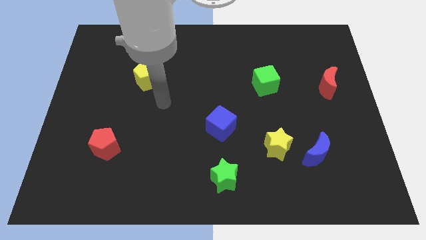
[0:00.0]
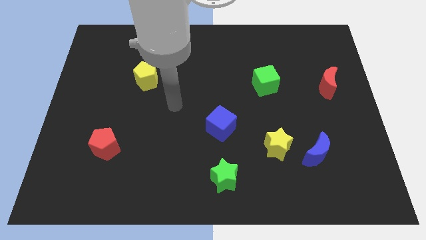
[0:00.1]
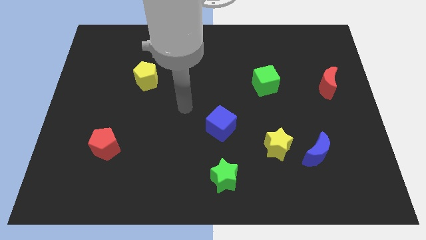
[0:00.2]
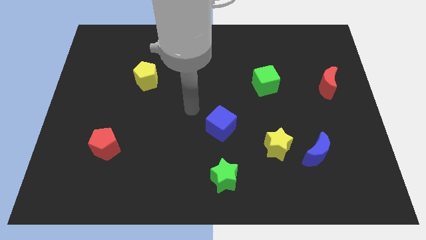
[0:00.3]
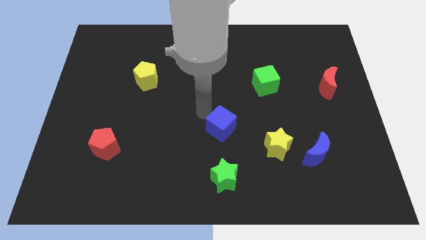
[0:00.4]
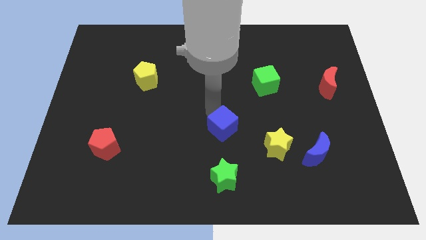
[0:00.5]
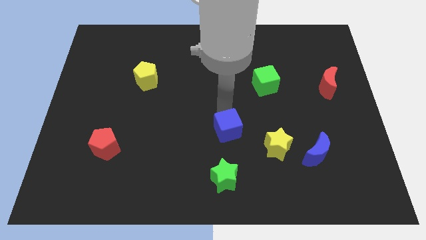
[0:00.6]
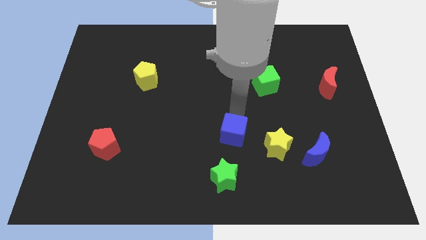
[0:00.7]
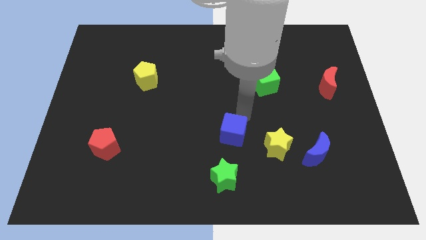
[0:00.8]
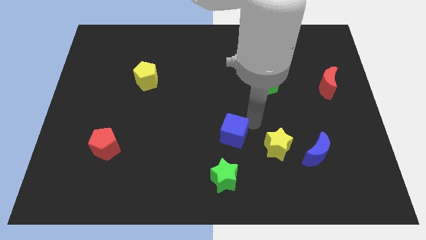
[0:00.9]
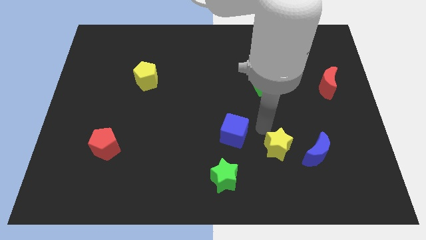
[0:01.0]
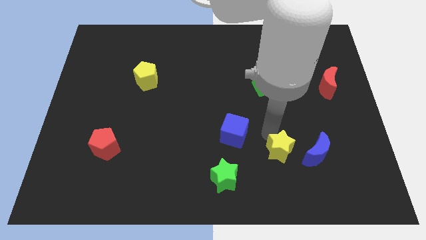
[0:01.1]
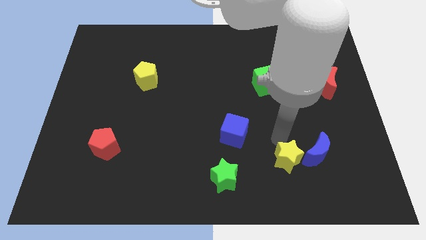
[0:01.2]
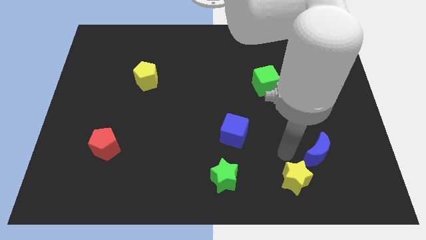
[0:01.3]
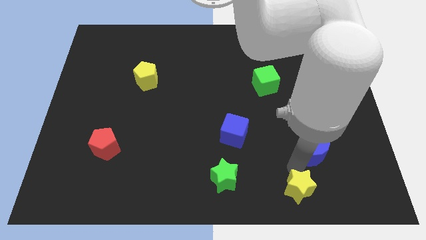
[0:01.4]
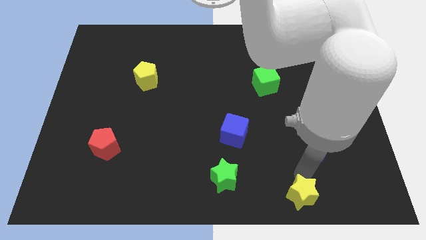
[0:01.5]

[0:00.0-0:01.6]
pull the blue moon apart from the yellow star

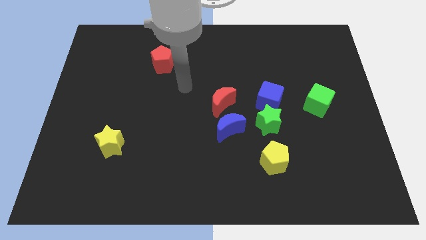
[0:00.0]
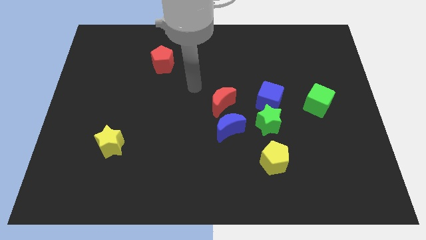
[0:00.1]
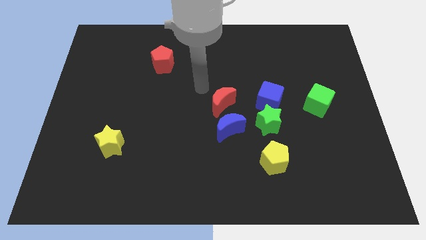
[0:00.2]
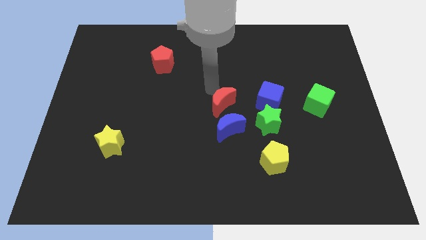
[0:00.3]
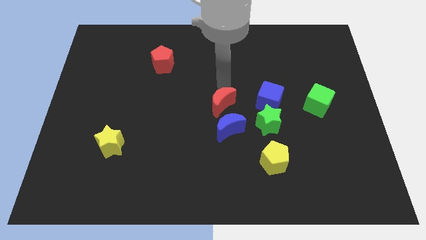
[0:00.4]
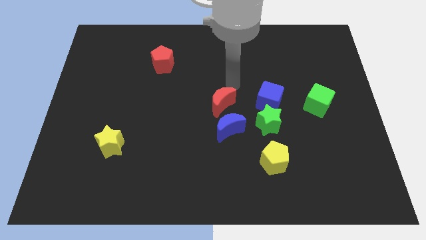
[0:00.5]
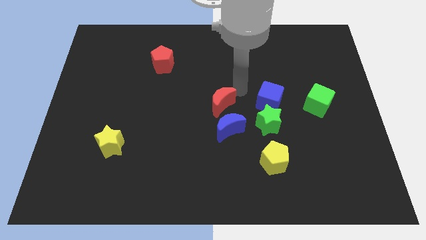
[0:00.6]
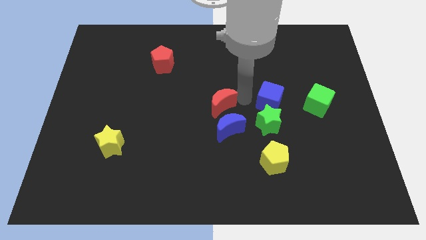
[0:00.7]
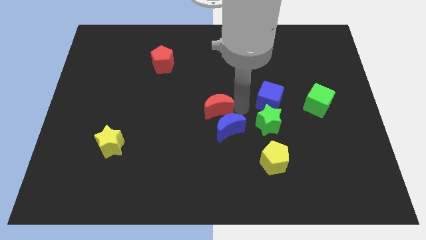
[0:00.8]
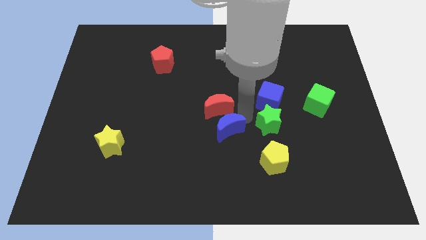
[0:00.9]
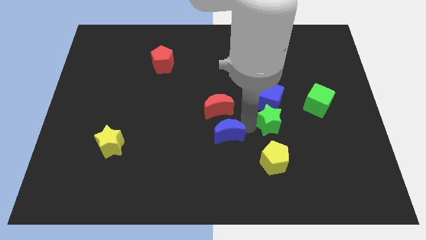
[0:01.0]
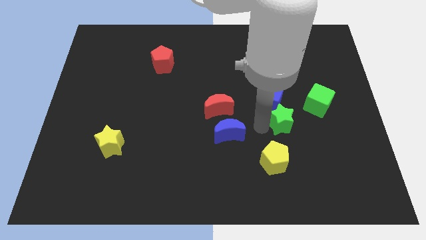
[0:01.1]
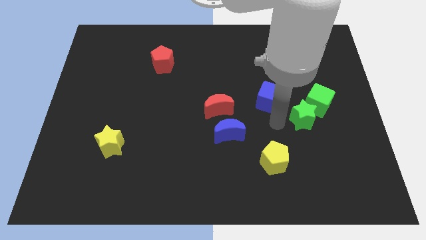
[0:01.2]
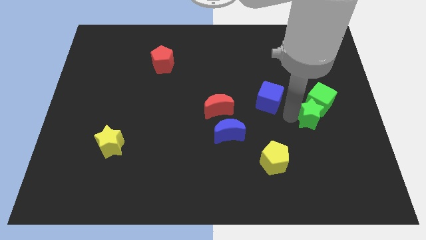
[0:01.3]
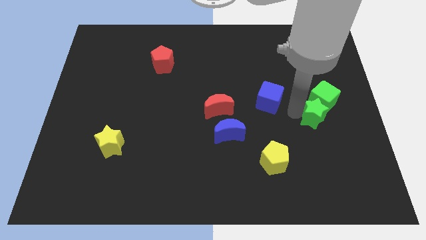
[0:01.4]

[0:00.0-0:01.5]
separate the blue cube from the green star

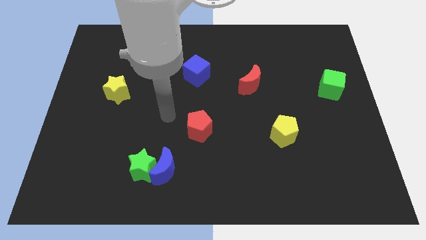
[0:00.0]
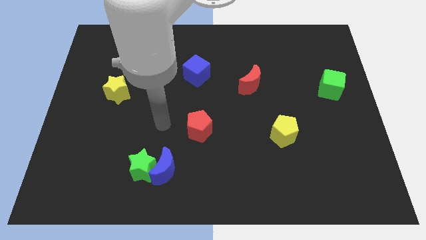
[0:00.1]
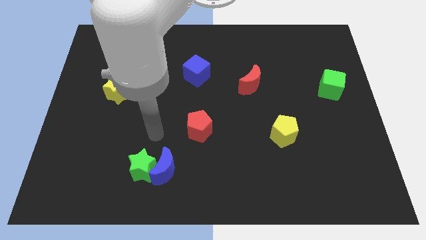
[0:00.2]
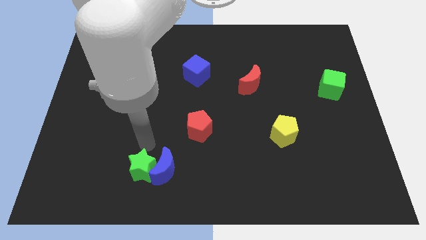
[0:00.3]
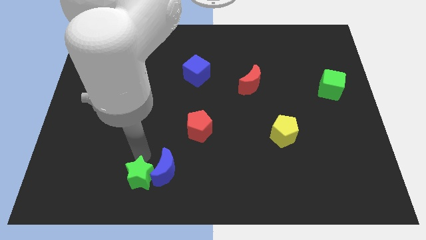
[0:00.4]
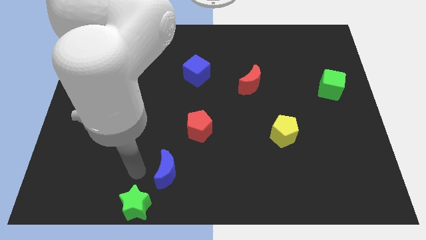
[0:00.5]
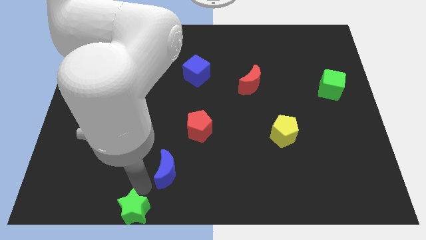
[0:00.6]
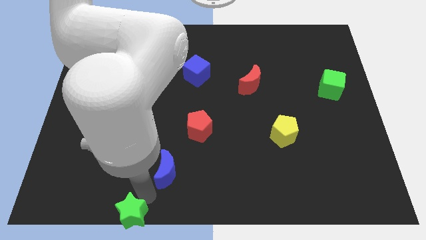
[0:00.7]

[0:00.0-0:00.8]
separate the blue moon from the green star

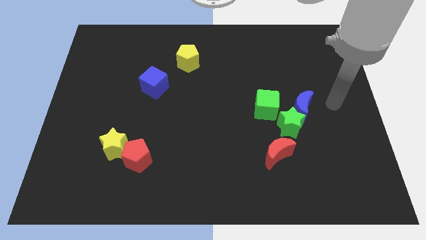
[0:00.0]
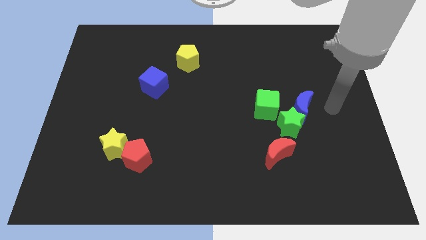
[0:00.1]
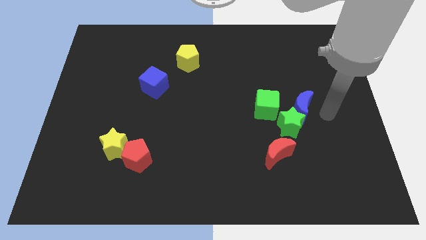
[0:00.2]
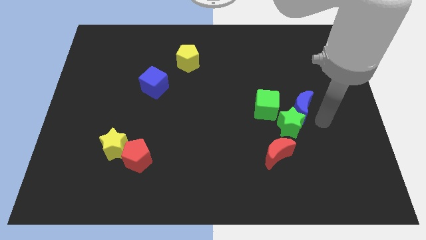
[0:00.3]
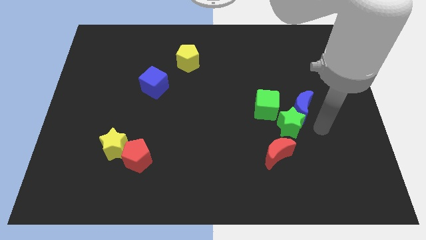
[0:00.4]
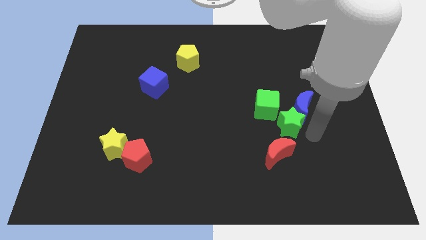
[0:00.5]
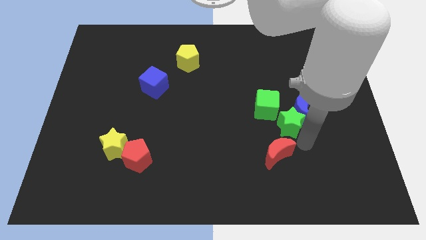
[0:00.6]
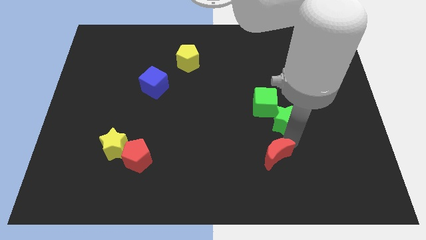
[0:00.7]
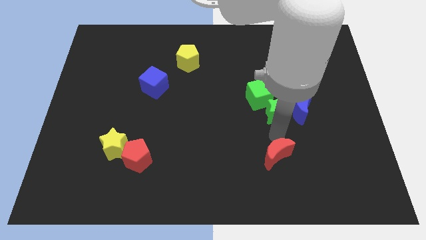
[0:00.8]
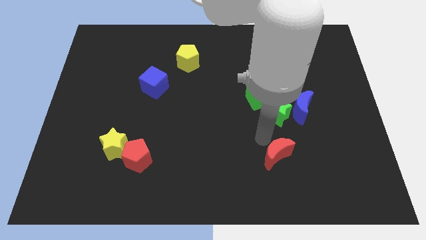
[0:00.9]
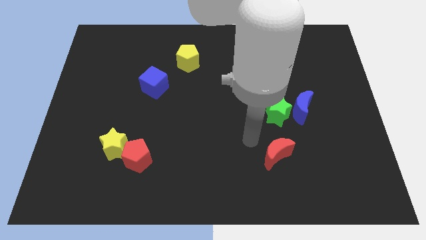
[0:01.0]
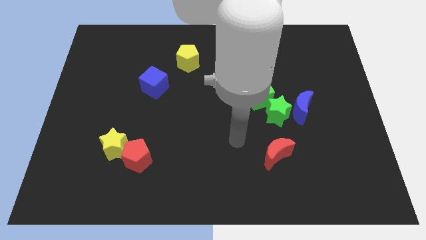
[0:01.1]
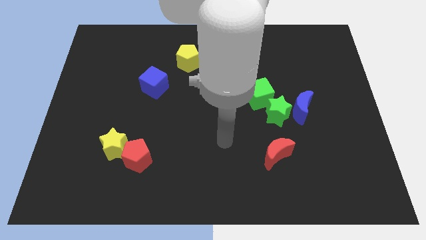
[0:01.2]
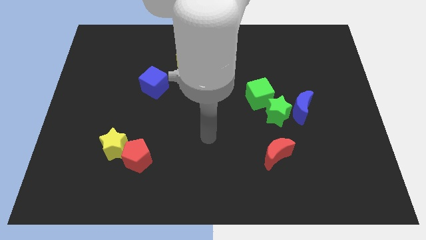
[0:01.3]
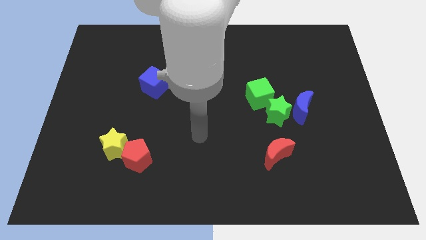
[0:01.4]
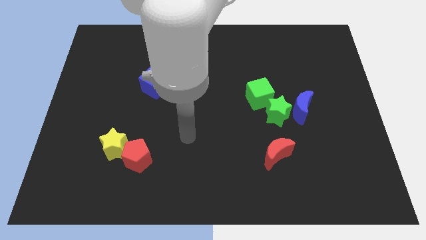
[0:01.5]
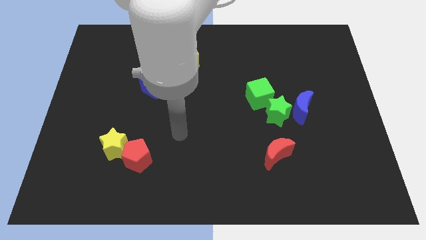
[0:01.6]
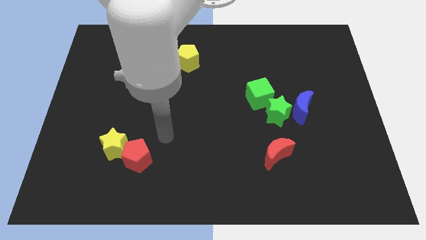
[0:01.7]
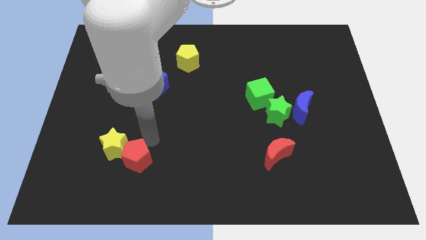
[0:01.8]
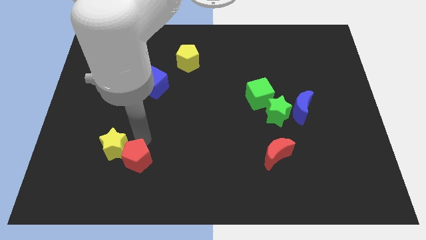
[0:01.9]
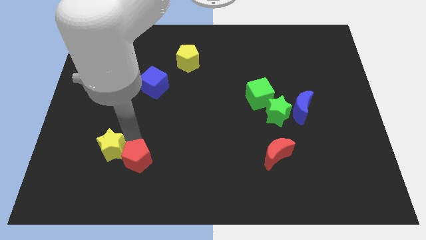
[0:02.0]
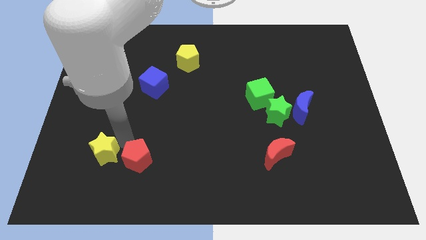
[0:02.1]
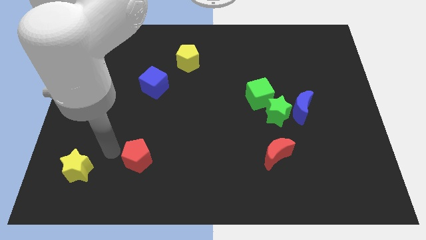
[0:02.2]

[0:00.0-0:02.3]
separate the red pentagon from the yellow star

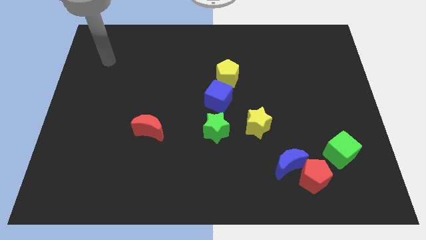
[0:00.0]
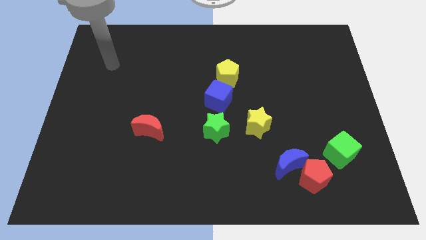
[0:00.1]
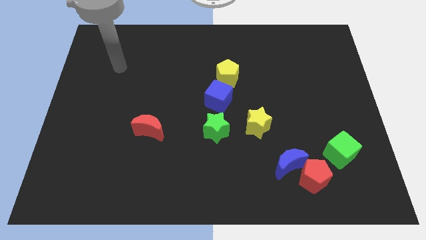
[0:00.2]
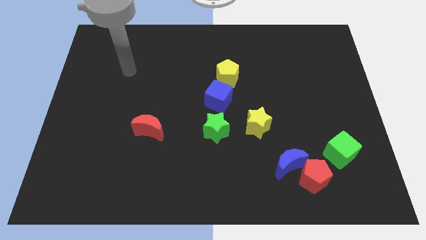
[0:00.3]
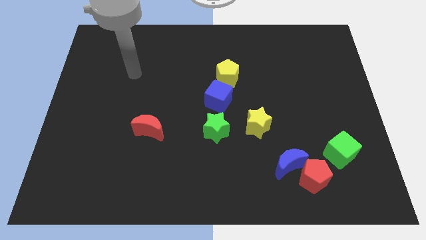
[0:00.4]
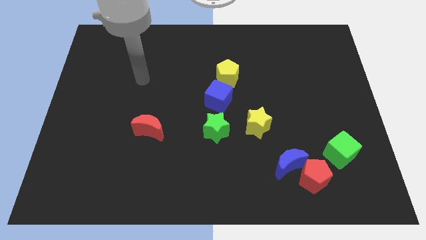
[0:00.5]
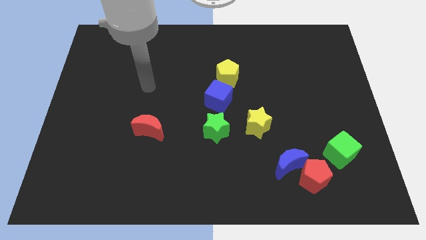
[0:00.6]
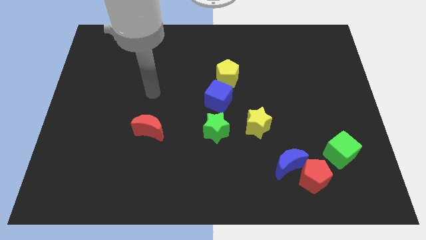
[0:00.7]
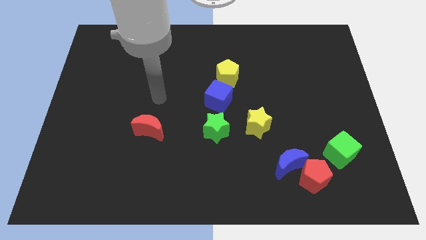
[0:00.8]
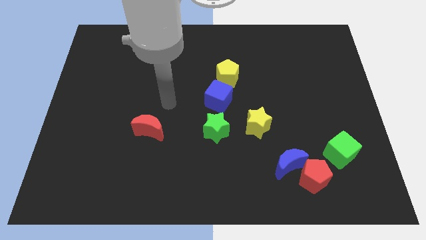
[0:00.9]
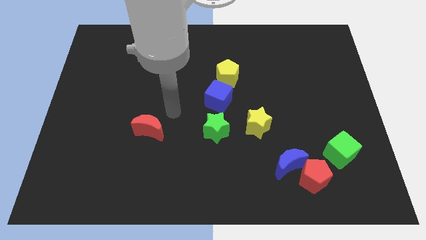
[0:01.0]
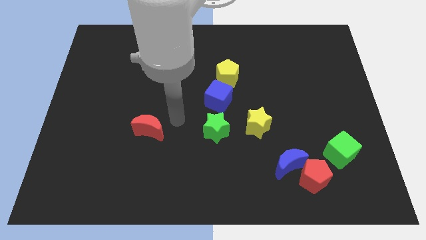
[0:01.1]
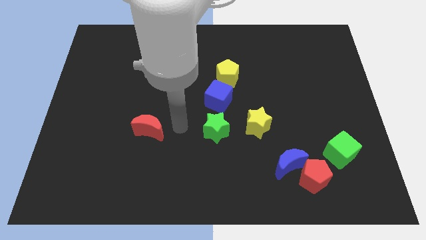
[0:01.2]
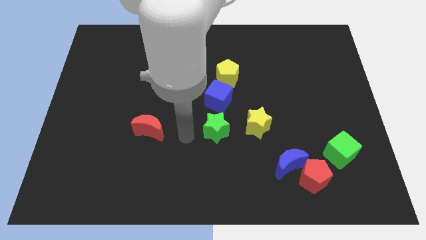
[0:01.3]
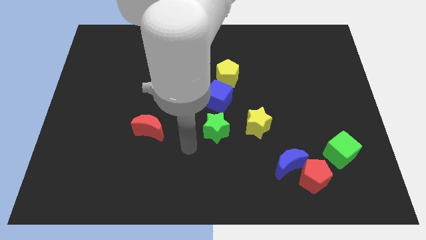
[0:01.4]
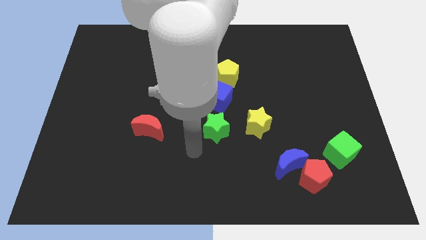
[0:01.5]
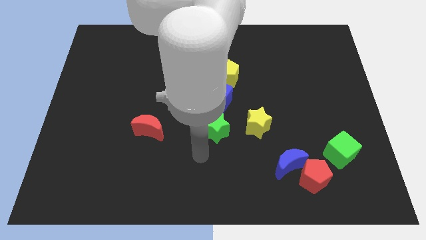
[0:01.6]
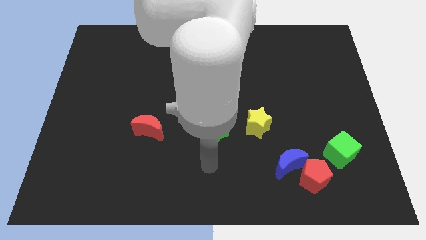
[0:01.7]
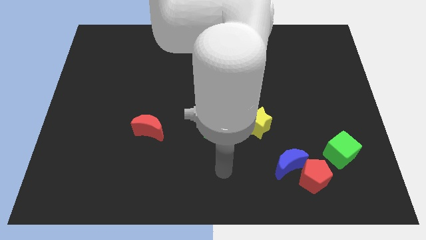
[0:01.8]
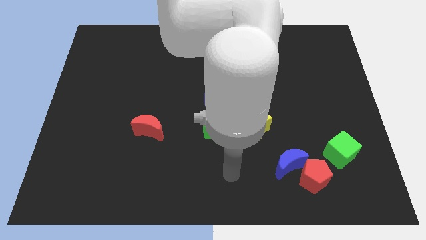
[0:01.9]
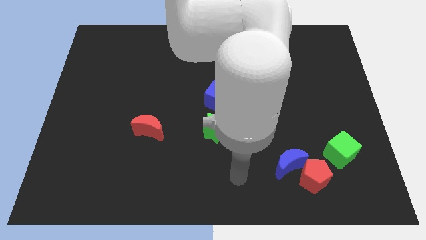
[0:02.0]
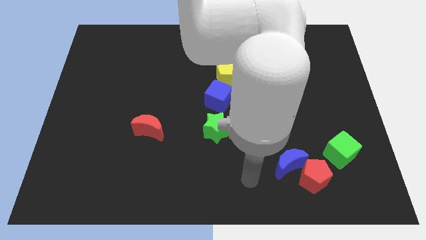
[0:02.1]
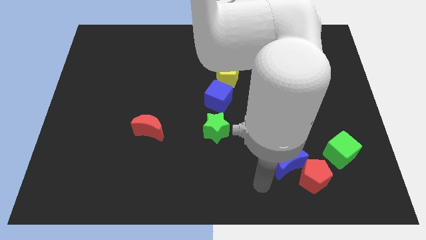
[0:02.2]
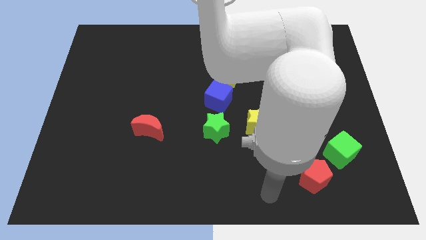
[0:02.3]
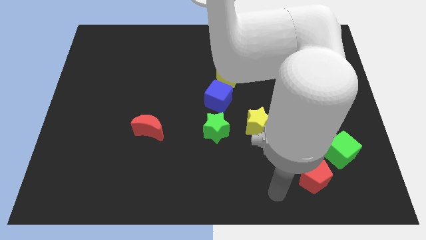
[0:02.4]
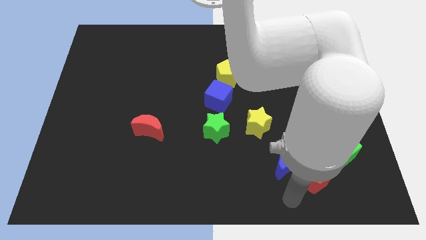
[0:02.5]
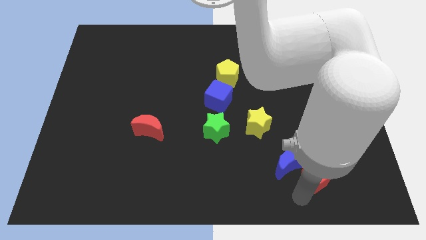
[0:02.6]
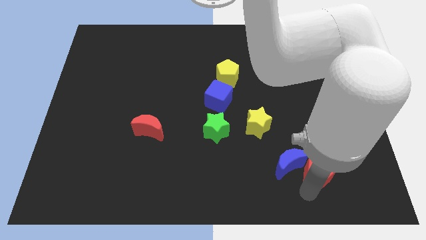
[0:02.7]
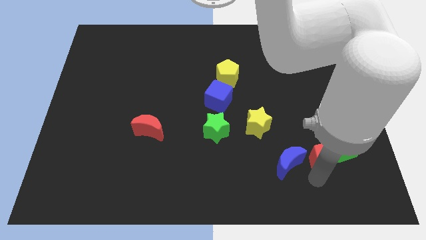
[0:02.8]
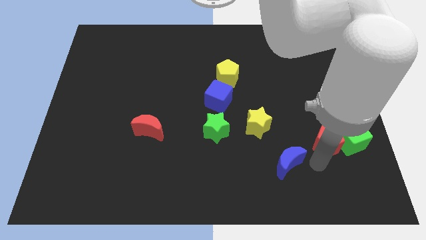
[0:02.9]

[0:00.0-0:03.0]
move the blue moon away from the red pentagon

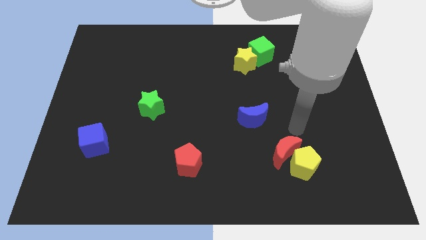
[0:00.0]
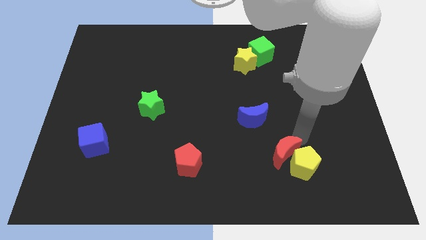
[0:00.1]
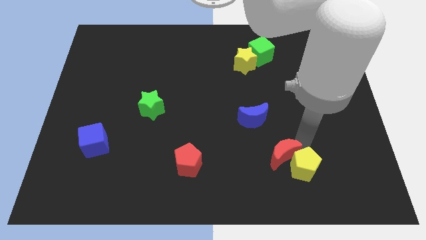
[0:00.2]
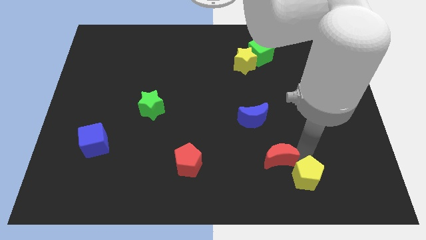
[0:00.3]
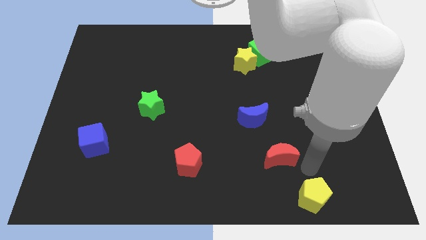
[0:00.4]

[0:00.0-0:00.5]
pull the red moon apart from the yellow pentagon
